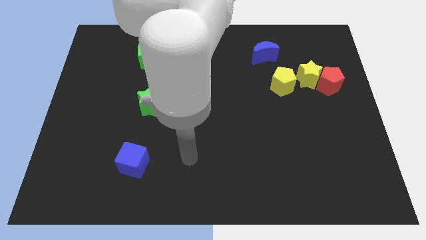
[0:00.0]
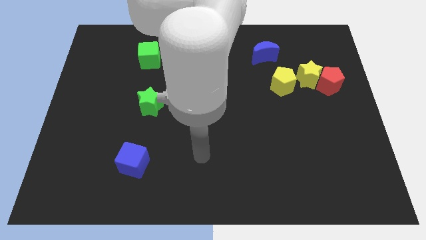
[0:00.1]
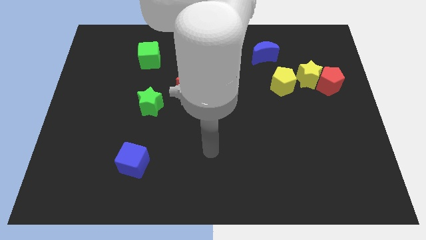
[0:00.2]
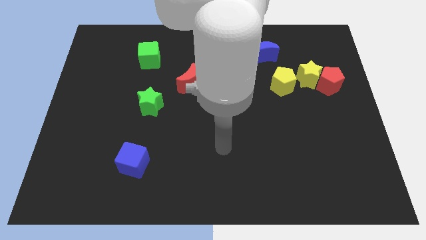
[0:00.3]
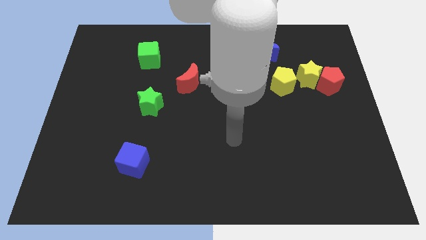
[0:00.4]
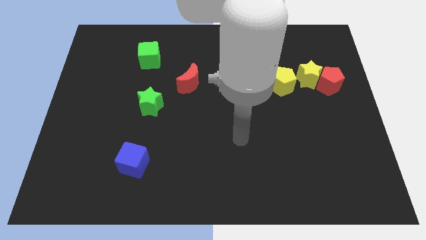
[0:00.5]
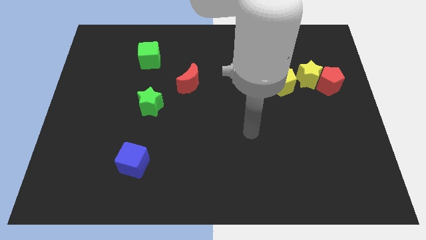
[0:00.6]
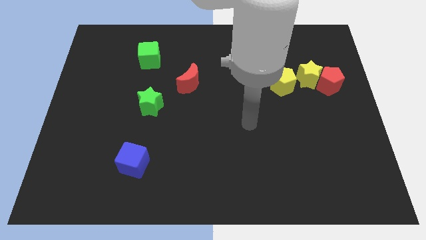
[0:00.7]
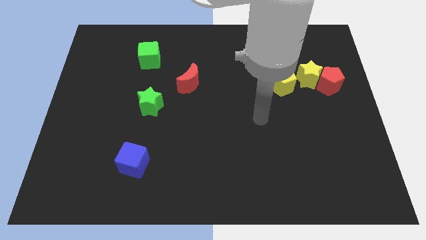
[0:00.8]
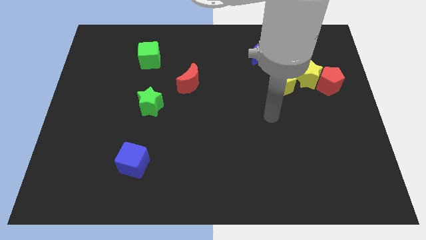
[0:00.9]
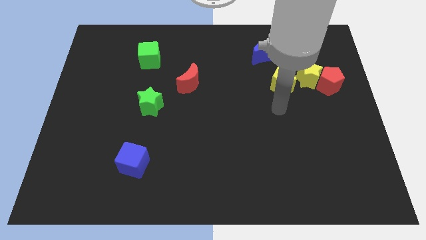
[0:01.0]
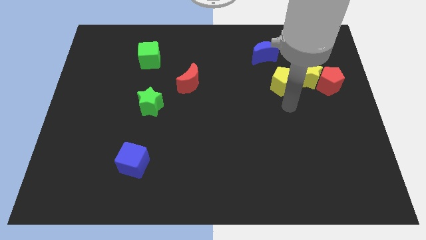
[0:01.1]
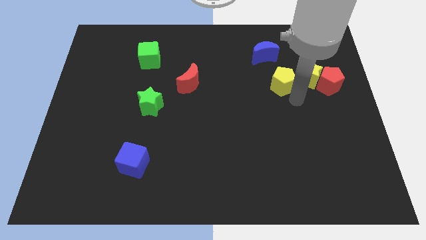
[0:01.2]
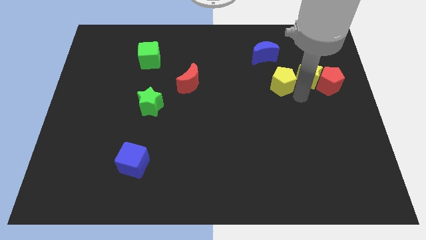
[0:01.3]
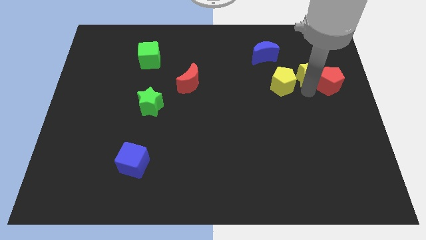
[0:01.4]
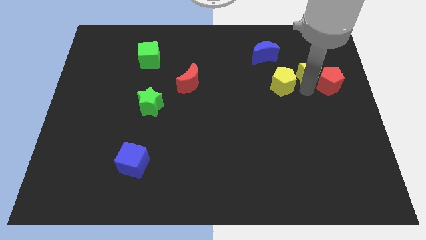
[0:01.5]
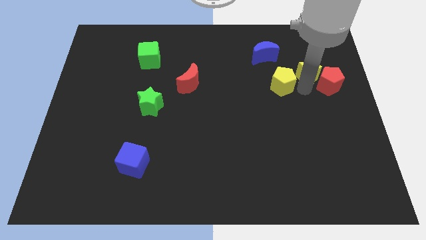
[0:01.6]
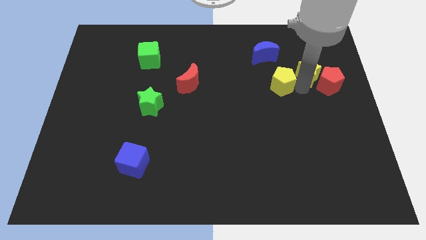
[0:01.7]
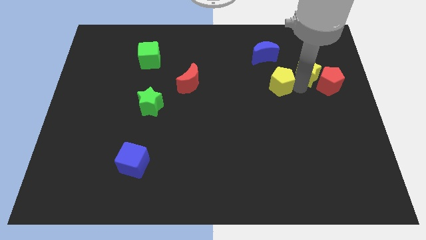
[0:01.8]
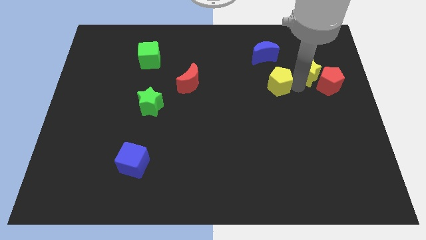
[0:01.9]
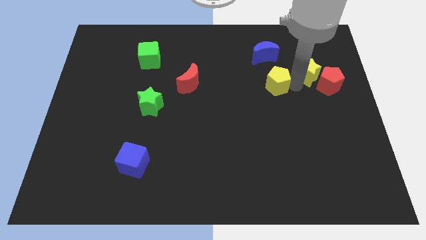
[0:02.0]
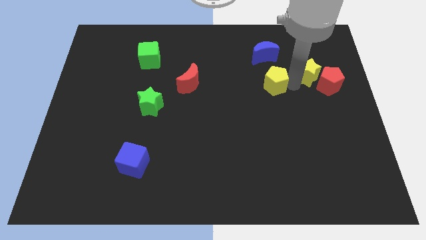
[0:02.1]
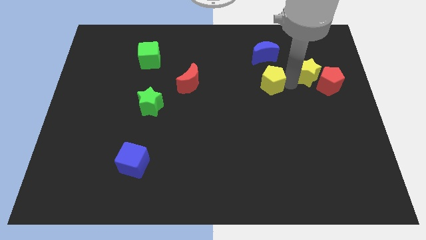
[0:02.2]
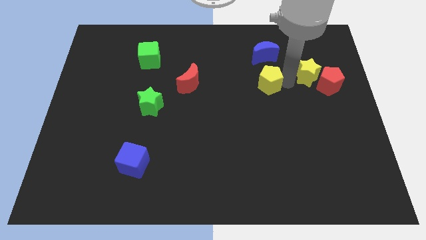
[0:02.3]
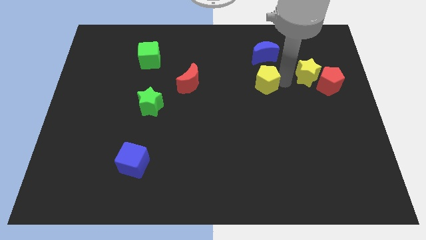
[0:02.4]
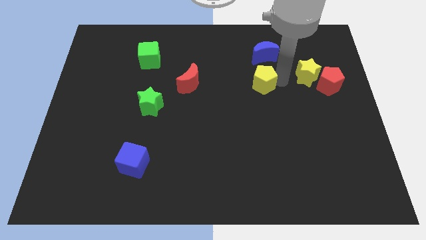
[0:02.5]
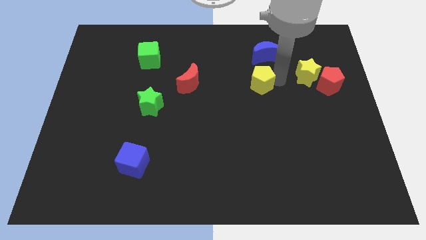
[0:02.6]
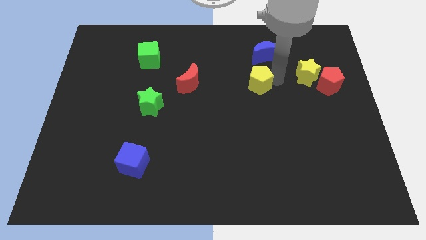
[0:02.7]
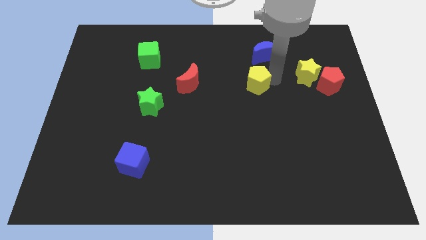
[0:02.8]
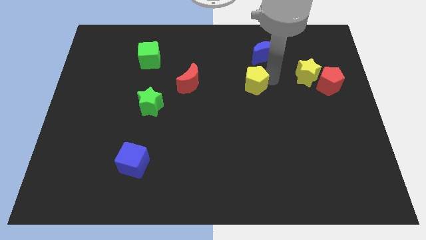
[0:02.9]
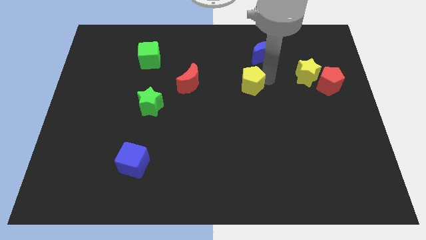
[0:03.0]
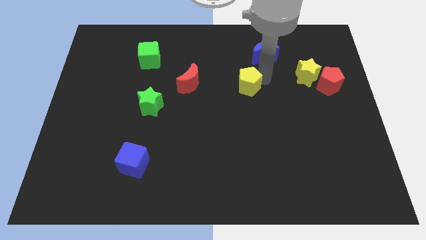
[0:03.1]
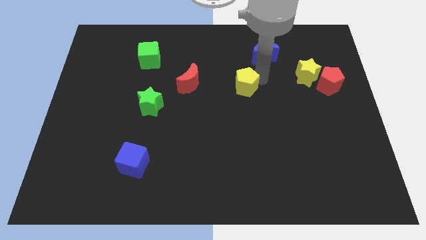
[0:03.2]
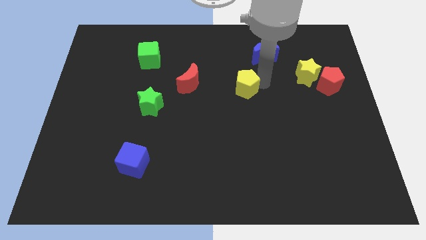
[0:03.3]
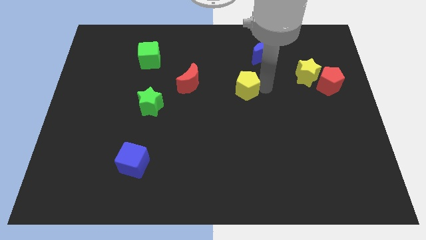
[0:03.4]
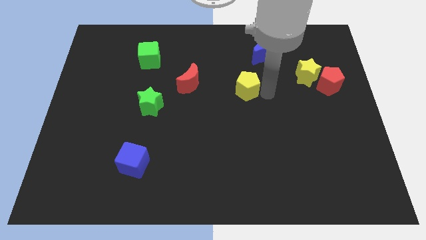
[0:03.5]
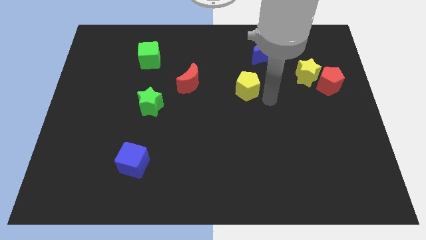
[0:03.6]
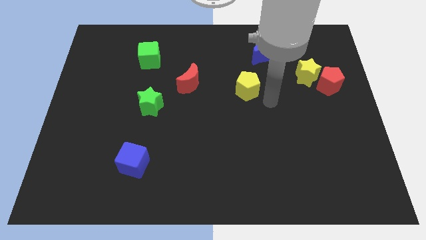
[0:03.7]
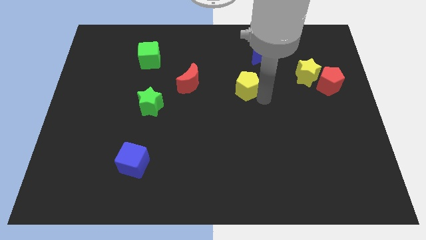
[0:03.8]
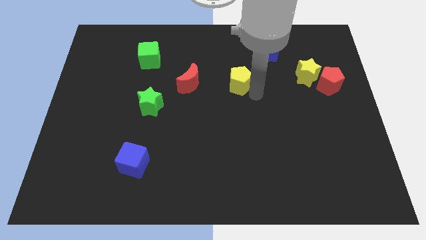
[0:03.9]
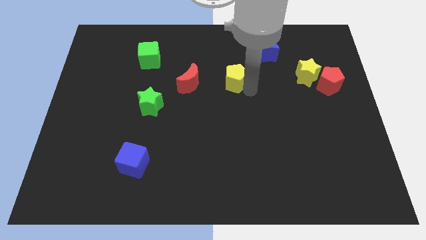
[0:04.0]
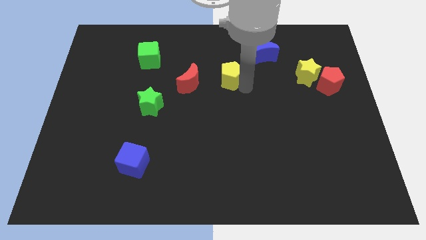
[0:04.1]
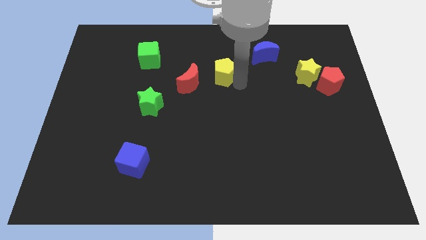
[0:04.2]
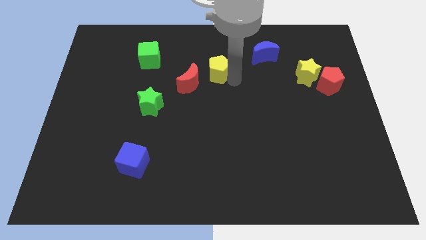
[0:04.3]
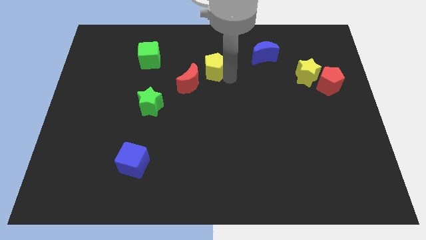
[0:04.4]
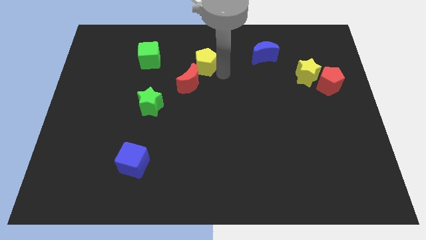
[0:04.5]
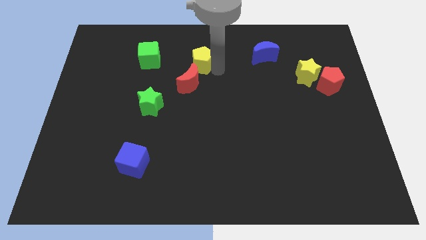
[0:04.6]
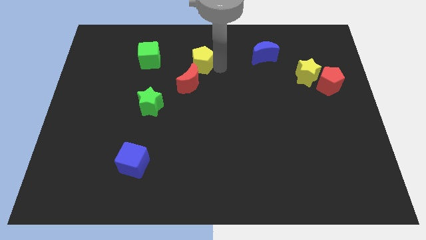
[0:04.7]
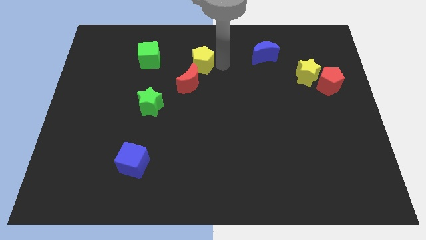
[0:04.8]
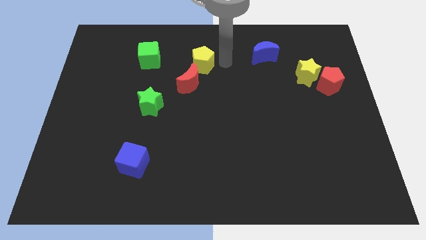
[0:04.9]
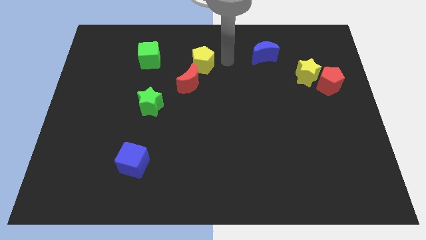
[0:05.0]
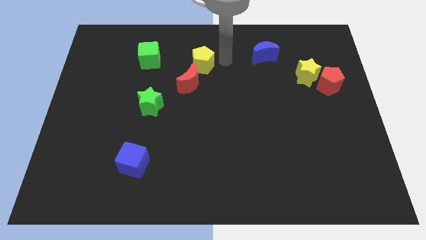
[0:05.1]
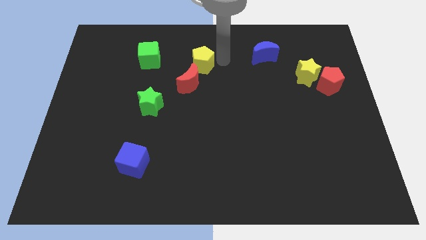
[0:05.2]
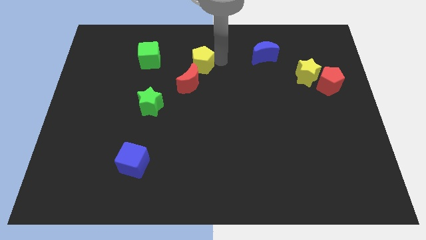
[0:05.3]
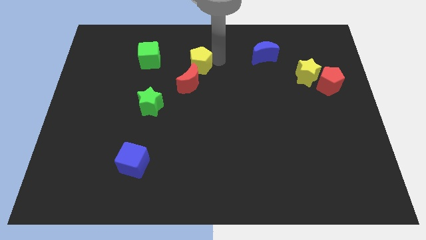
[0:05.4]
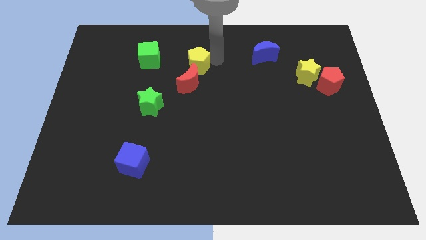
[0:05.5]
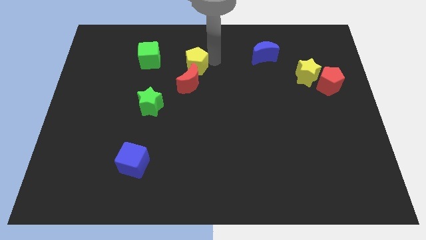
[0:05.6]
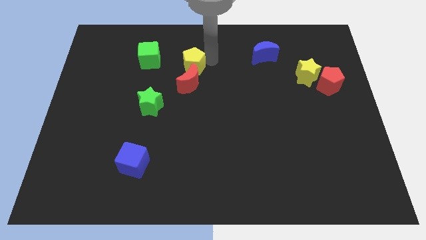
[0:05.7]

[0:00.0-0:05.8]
push the yellow pentagon to the top left of the red moon

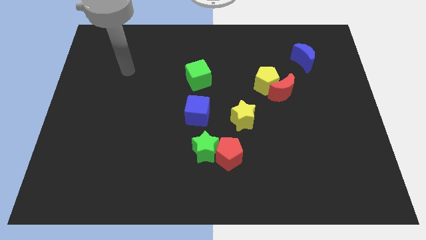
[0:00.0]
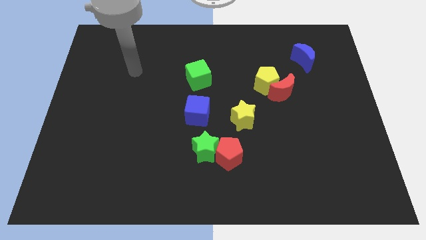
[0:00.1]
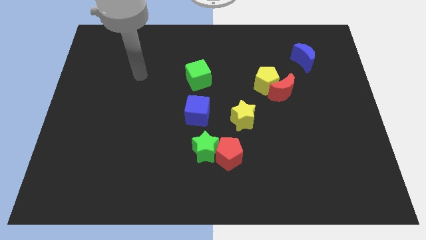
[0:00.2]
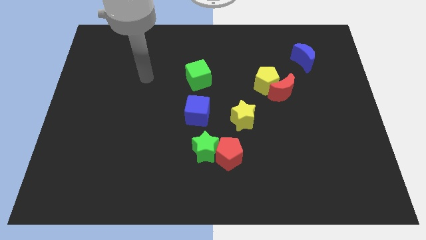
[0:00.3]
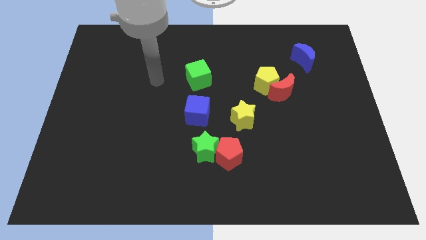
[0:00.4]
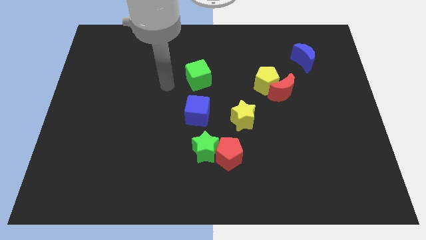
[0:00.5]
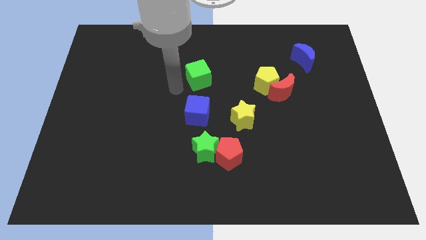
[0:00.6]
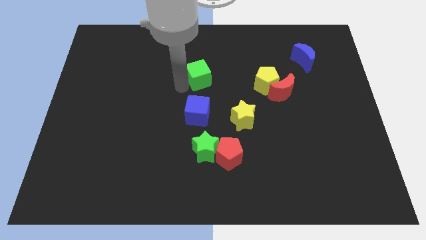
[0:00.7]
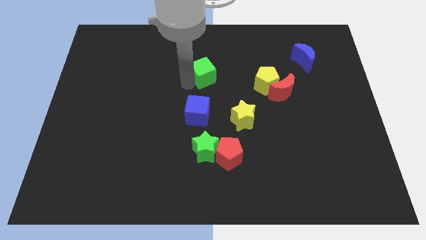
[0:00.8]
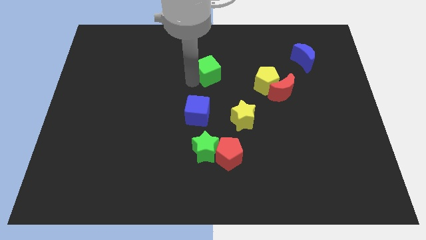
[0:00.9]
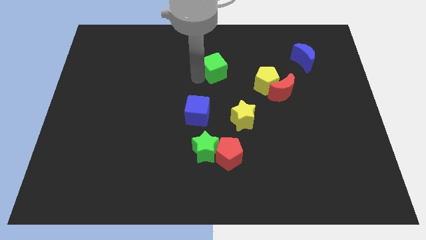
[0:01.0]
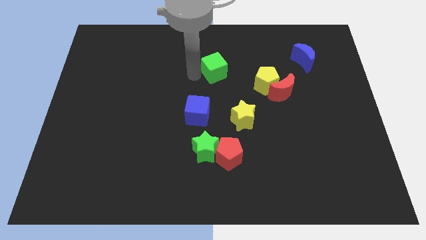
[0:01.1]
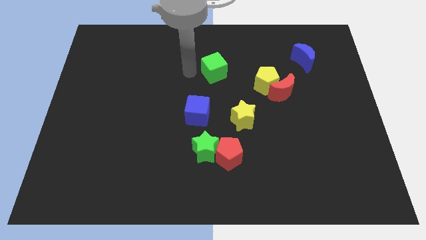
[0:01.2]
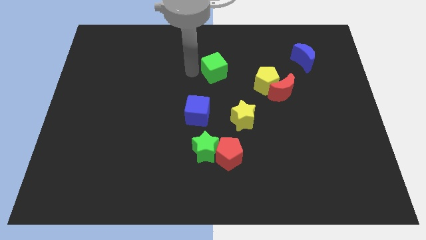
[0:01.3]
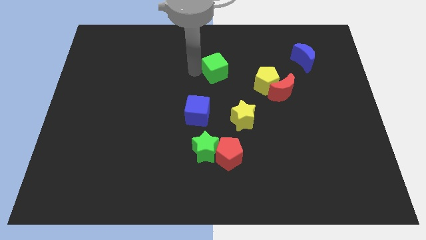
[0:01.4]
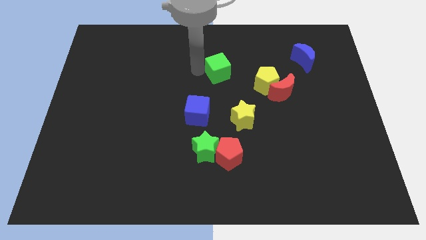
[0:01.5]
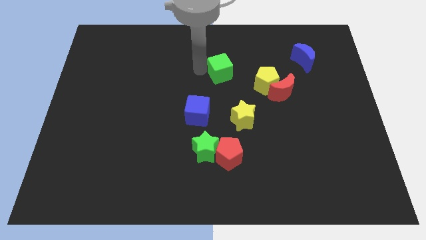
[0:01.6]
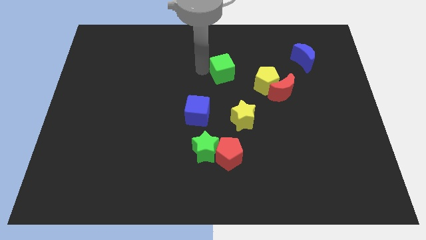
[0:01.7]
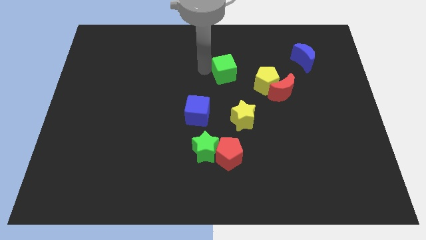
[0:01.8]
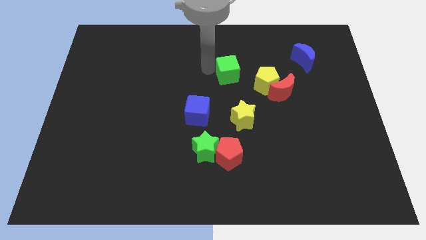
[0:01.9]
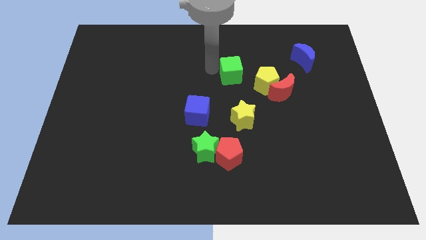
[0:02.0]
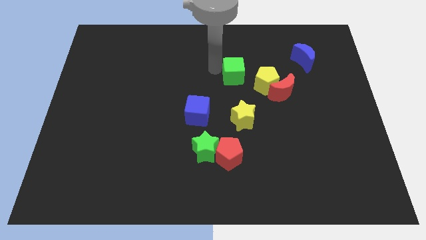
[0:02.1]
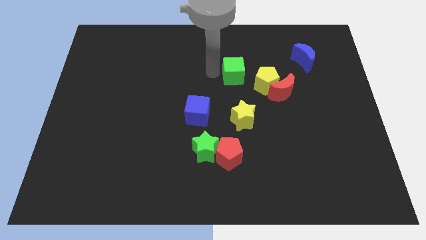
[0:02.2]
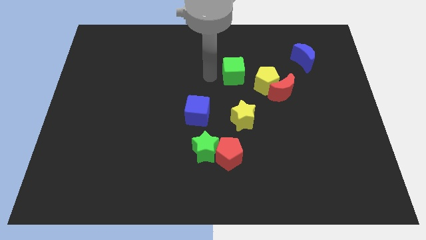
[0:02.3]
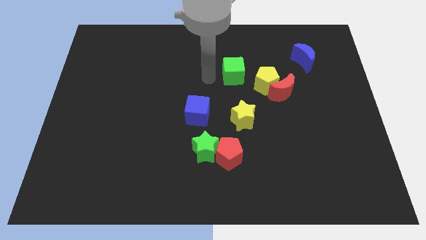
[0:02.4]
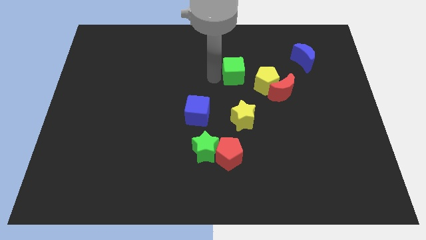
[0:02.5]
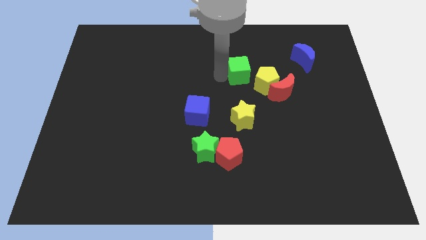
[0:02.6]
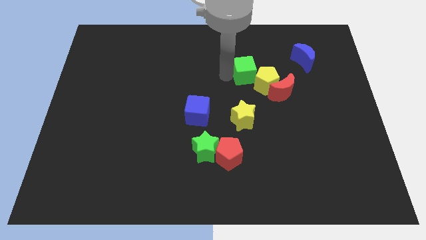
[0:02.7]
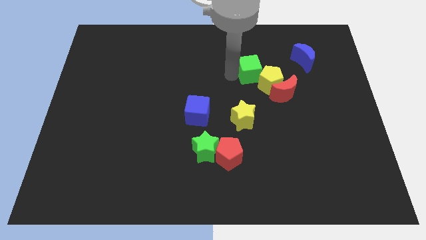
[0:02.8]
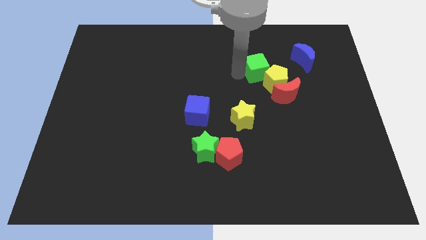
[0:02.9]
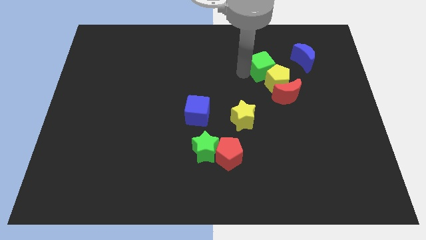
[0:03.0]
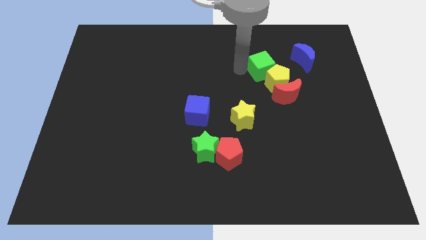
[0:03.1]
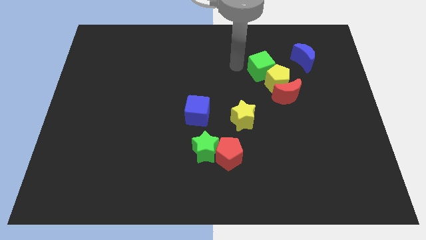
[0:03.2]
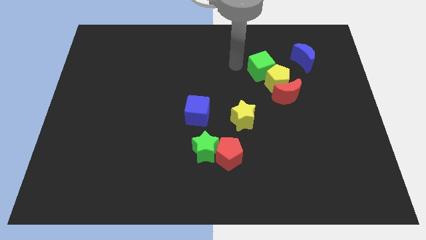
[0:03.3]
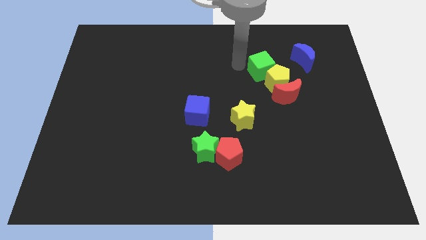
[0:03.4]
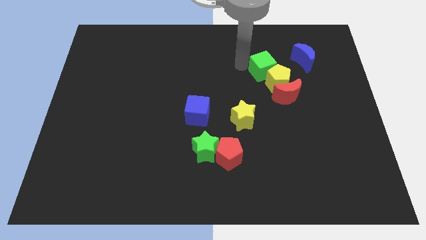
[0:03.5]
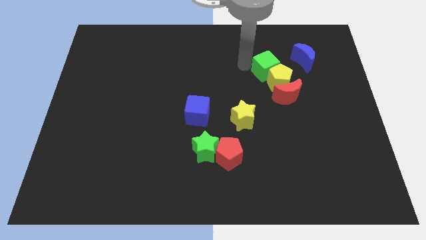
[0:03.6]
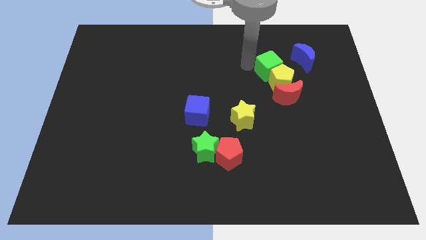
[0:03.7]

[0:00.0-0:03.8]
slide the green cube to the bottom left side of the blue moon
